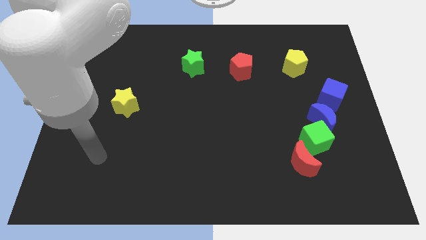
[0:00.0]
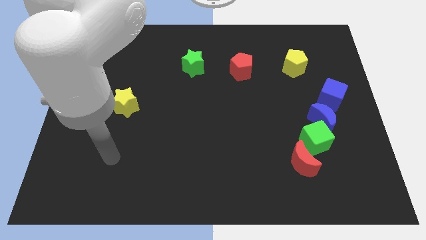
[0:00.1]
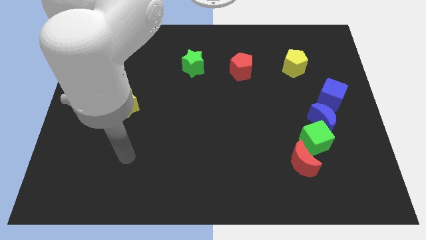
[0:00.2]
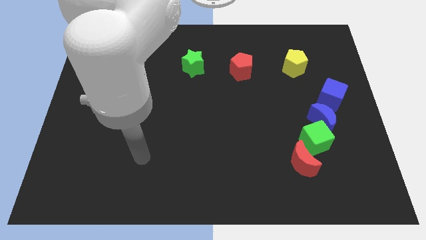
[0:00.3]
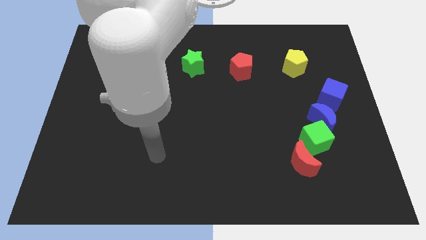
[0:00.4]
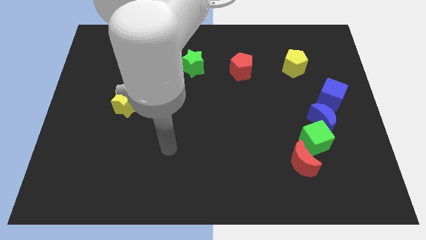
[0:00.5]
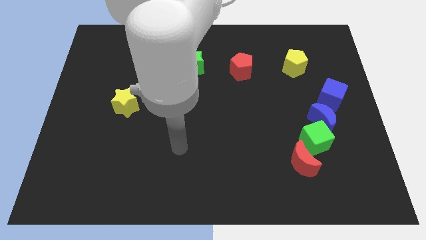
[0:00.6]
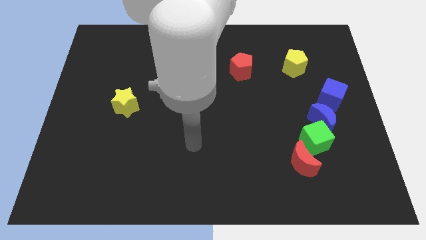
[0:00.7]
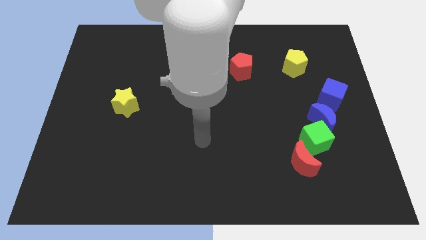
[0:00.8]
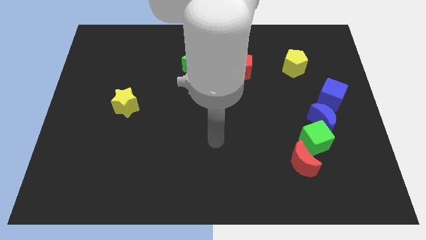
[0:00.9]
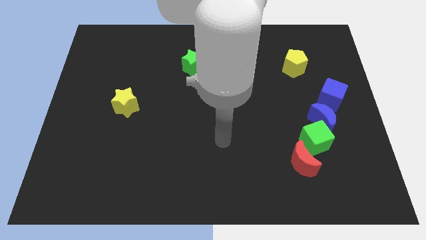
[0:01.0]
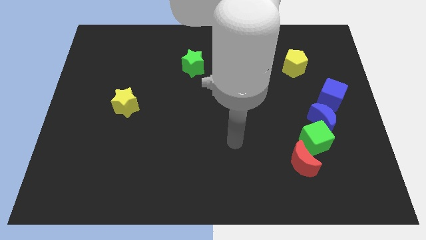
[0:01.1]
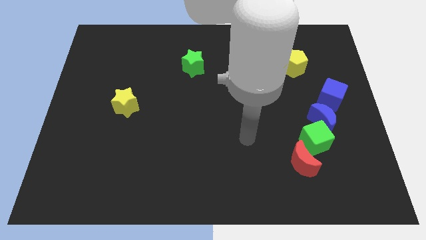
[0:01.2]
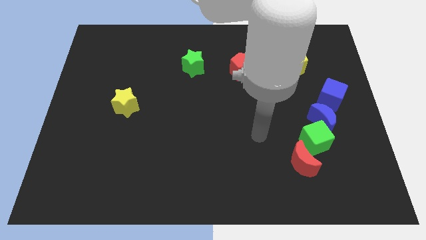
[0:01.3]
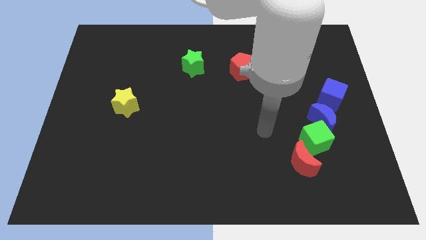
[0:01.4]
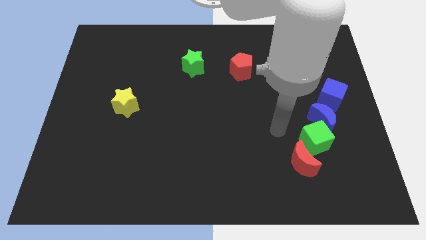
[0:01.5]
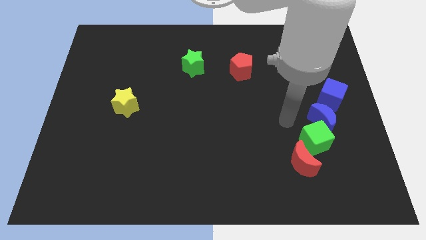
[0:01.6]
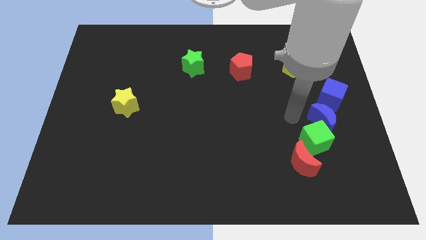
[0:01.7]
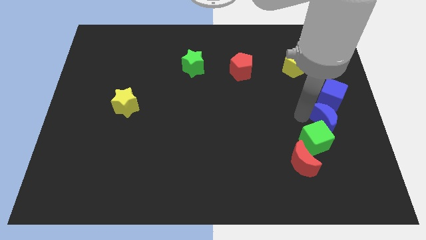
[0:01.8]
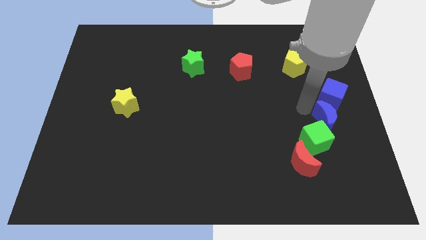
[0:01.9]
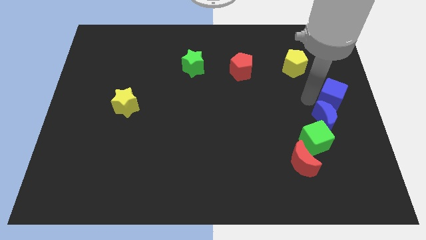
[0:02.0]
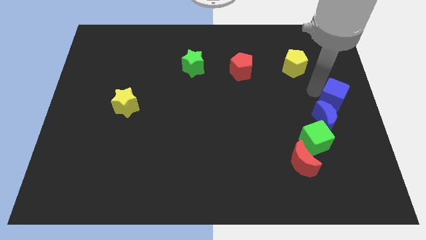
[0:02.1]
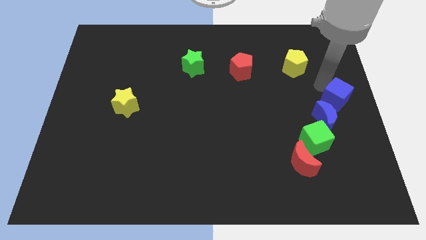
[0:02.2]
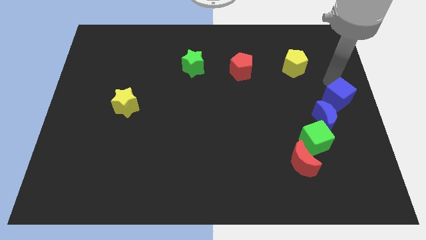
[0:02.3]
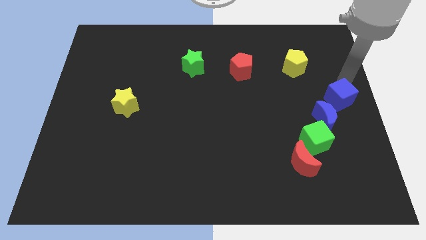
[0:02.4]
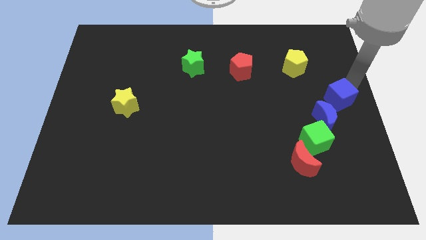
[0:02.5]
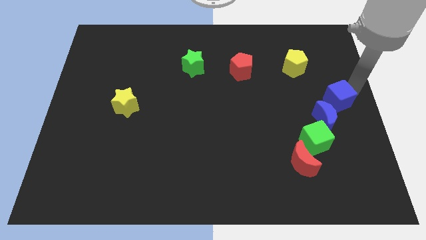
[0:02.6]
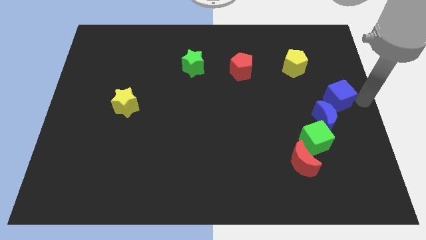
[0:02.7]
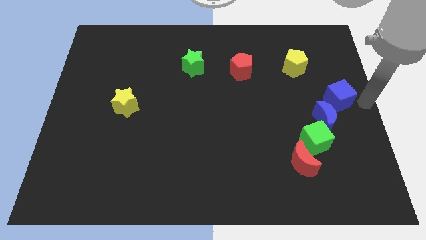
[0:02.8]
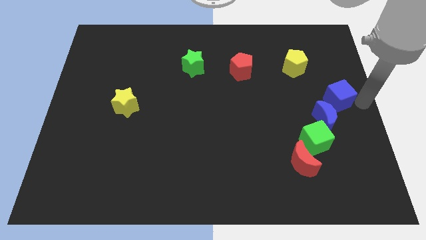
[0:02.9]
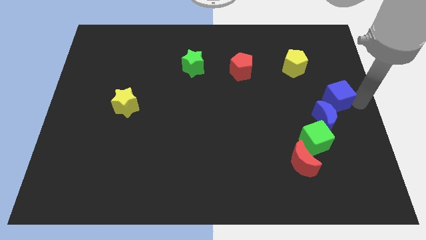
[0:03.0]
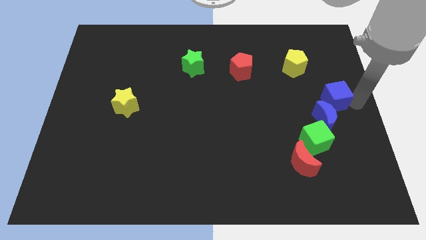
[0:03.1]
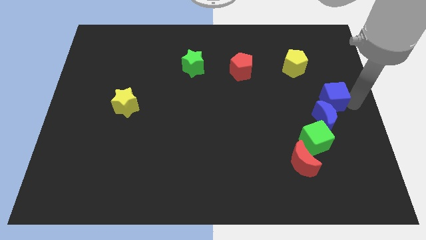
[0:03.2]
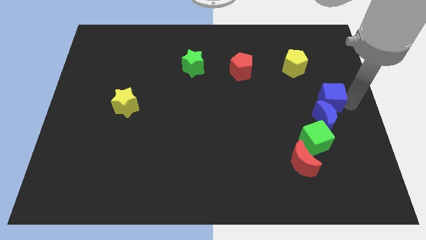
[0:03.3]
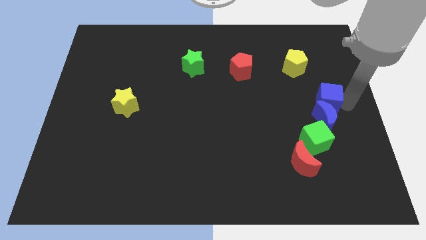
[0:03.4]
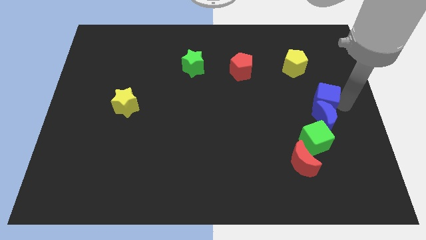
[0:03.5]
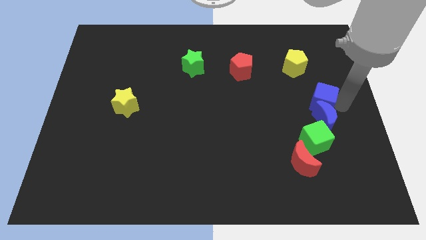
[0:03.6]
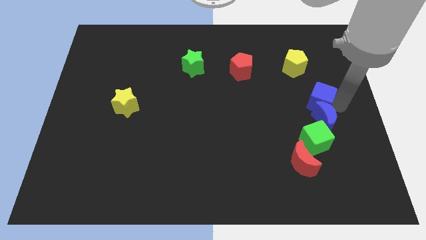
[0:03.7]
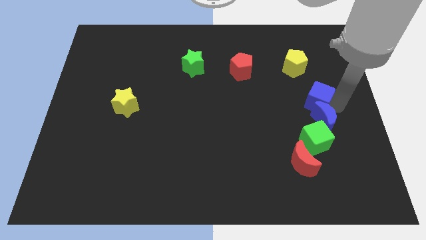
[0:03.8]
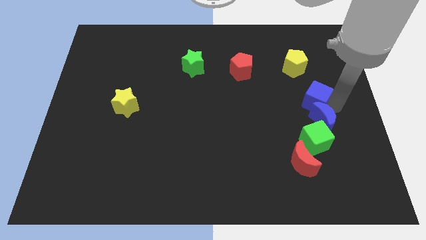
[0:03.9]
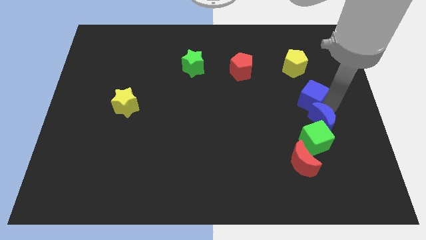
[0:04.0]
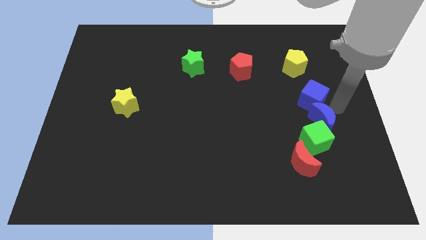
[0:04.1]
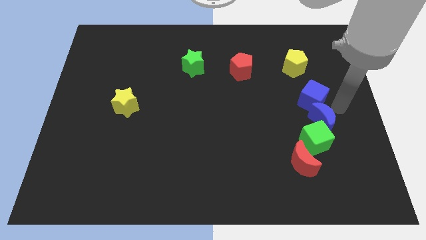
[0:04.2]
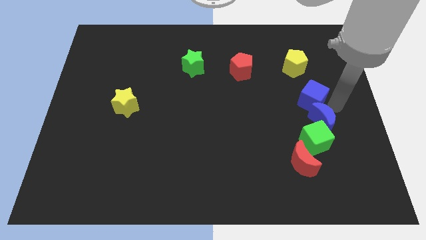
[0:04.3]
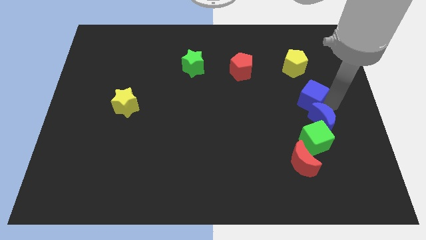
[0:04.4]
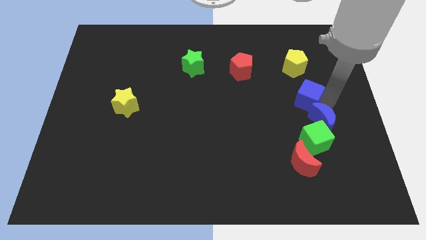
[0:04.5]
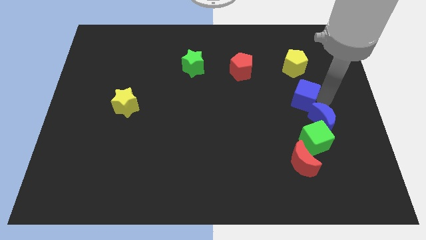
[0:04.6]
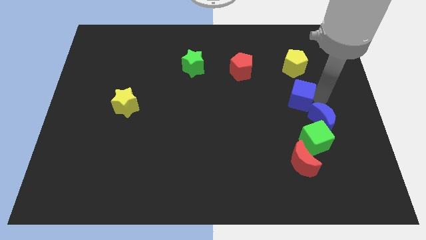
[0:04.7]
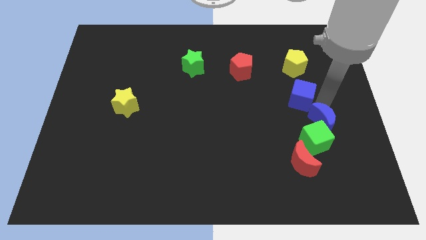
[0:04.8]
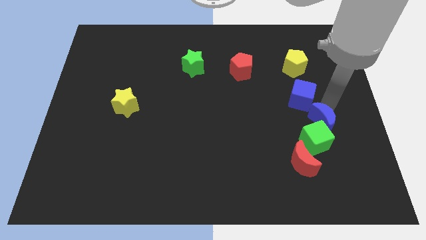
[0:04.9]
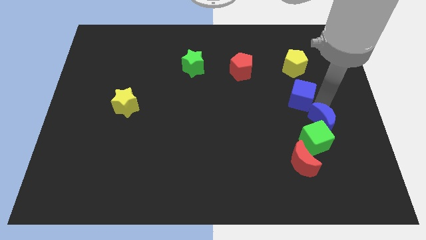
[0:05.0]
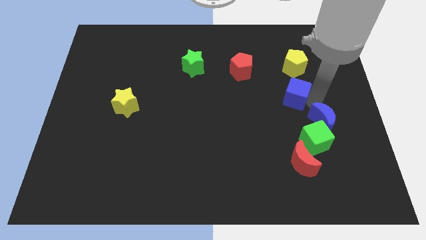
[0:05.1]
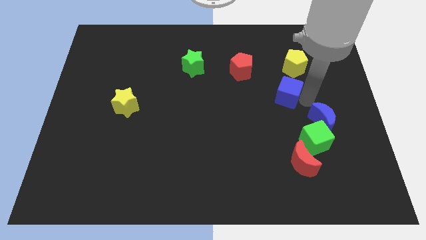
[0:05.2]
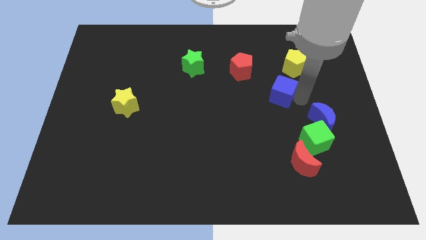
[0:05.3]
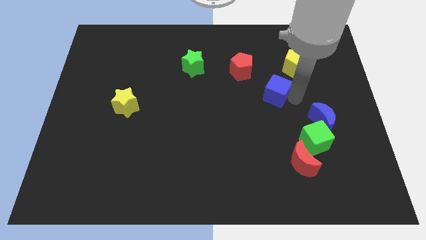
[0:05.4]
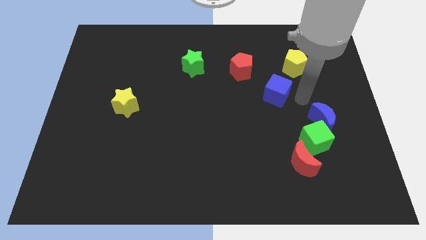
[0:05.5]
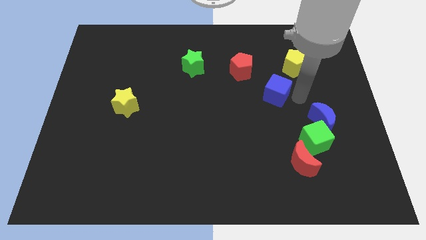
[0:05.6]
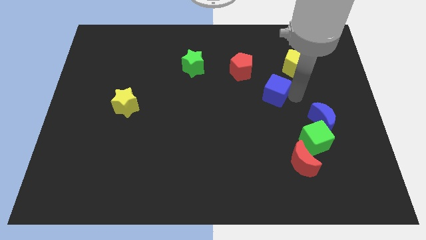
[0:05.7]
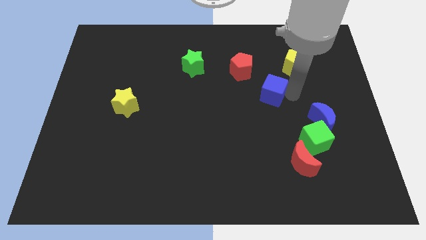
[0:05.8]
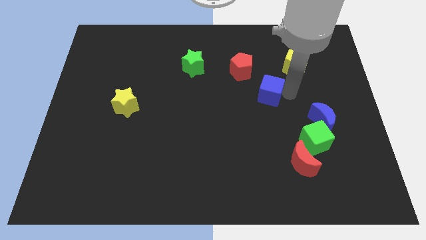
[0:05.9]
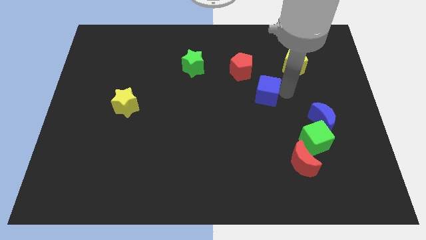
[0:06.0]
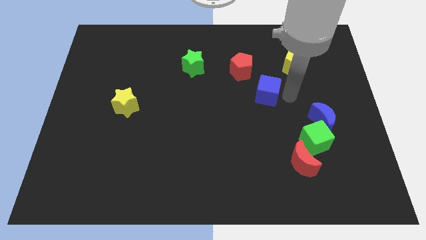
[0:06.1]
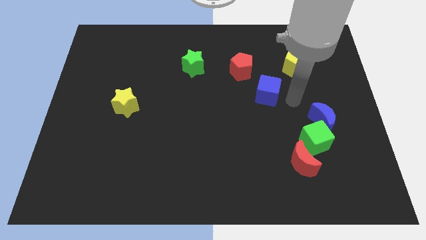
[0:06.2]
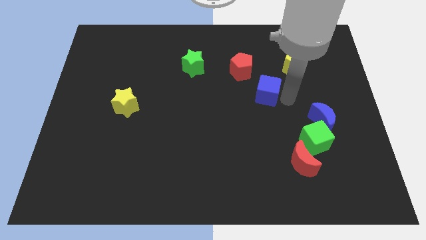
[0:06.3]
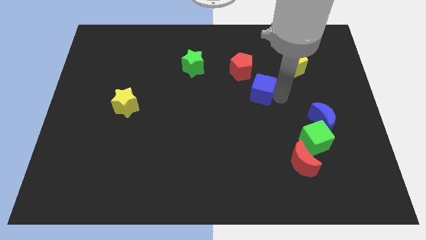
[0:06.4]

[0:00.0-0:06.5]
slide the blue cube to the middle of the board
